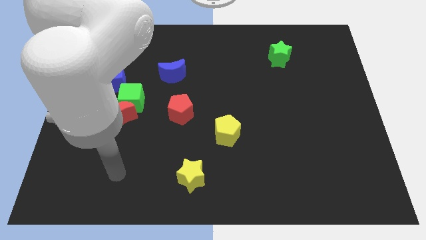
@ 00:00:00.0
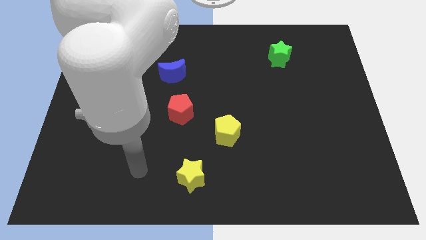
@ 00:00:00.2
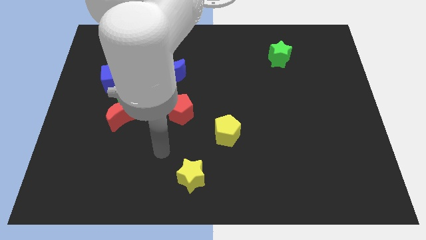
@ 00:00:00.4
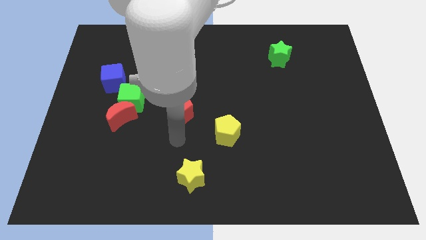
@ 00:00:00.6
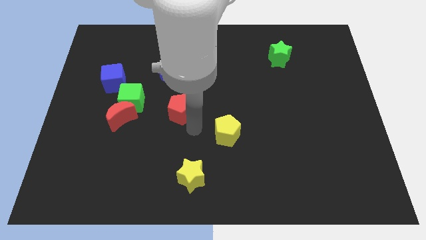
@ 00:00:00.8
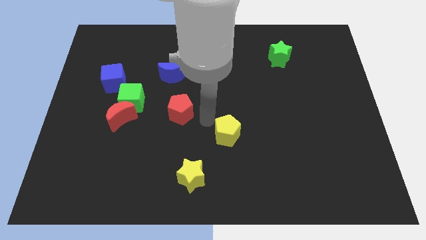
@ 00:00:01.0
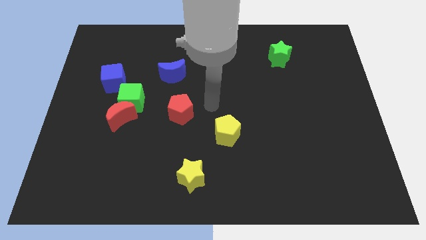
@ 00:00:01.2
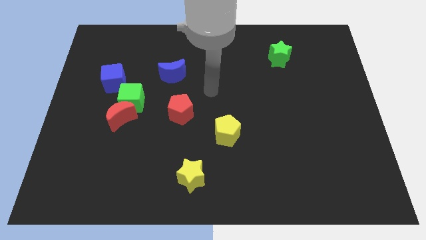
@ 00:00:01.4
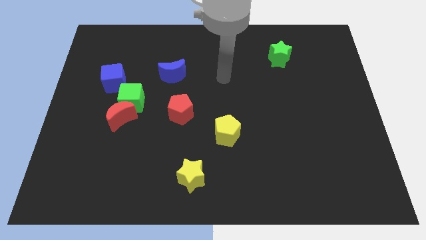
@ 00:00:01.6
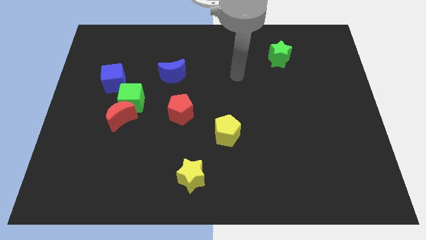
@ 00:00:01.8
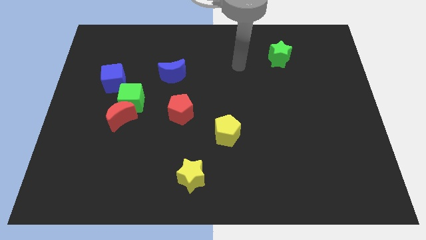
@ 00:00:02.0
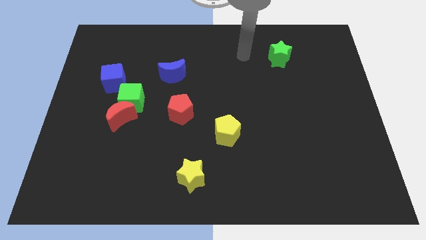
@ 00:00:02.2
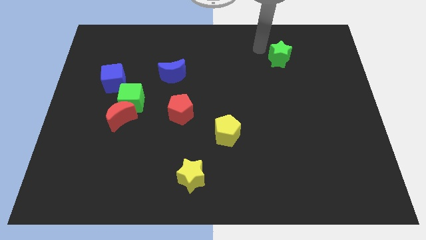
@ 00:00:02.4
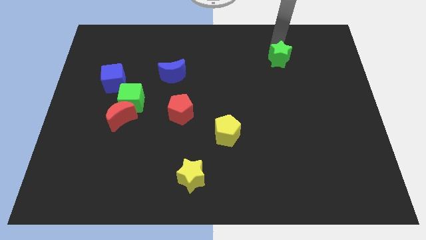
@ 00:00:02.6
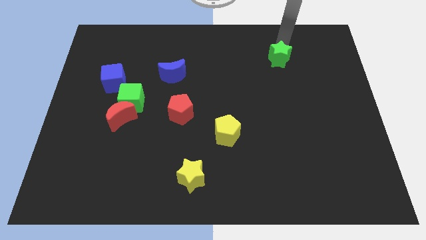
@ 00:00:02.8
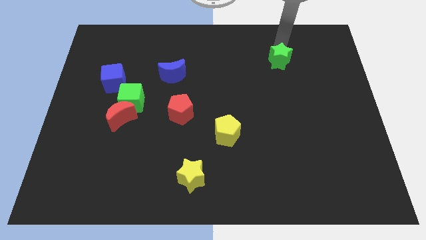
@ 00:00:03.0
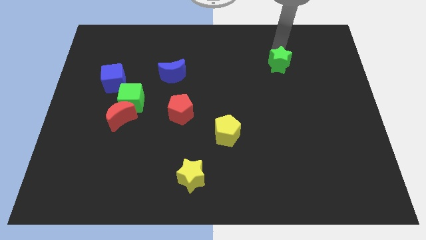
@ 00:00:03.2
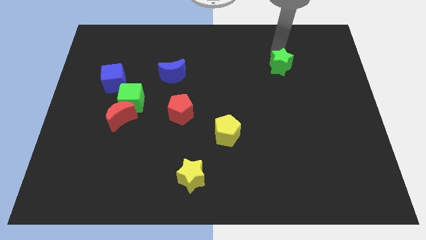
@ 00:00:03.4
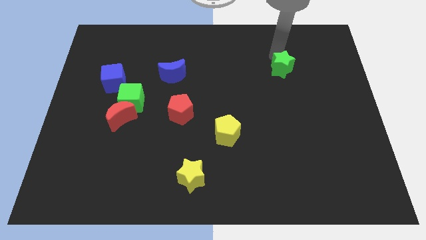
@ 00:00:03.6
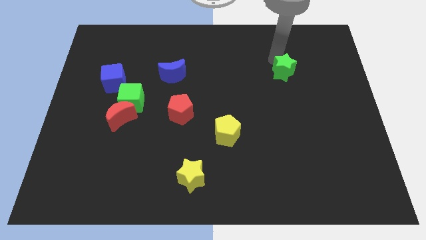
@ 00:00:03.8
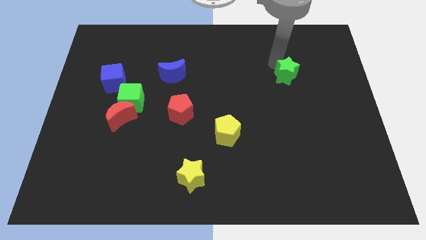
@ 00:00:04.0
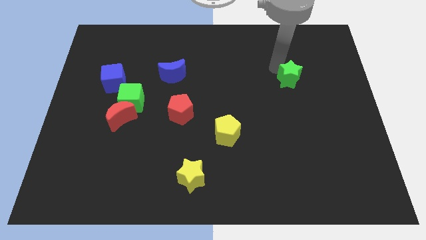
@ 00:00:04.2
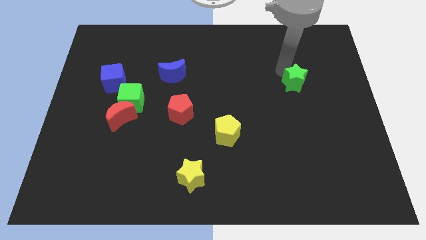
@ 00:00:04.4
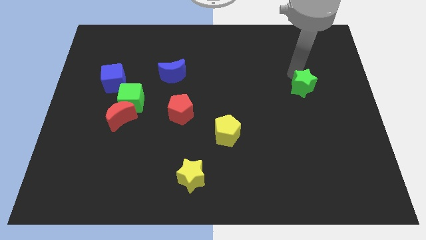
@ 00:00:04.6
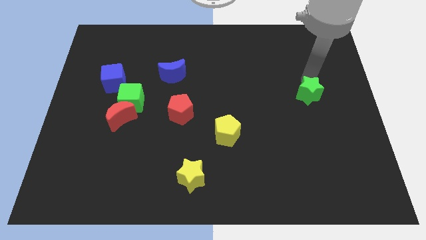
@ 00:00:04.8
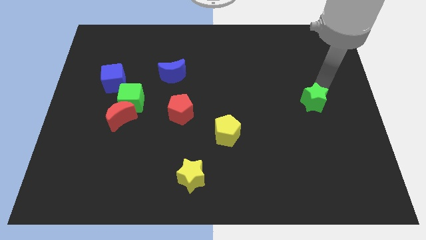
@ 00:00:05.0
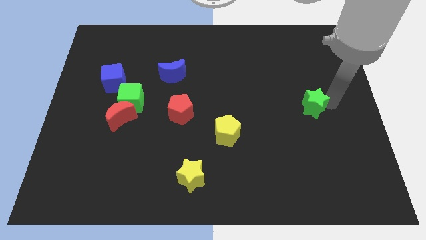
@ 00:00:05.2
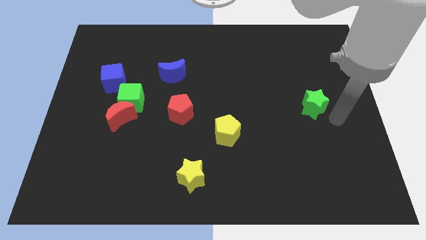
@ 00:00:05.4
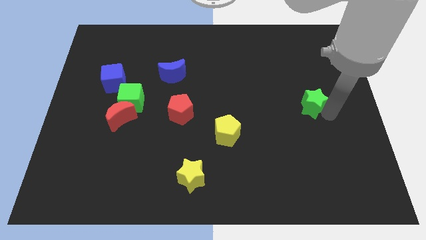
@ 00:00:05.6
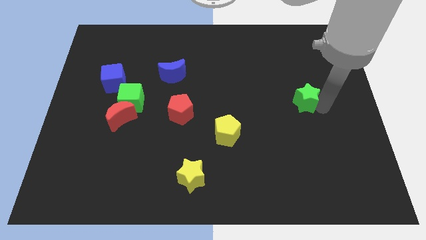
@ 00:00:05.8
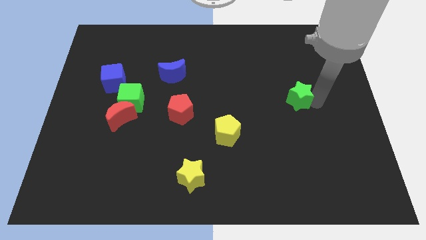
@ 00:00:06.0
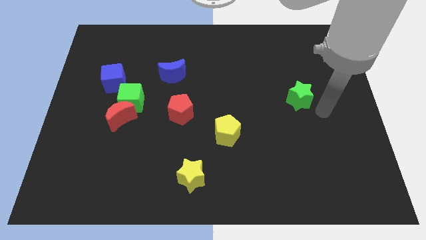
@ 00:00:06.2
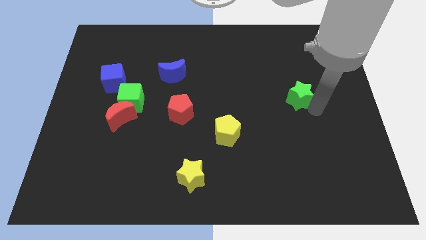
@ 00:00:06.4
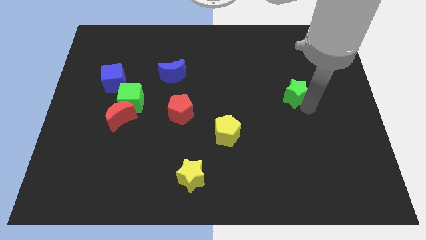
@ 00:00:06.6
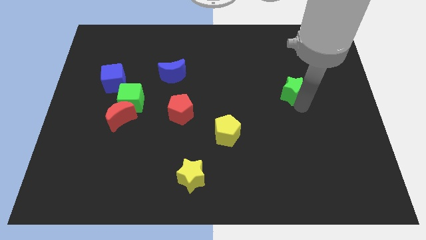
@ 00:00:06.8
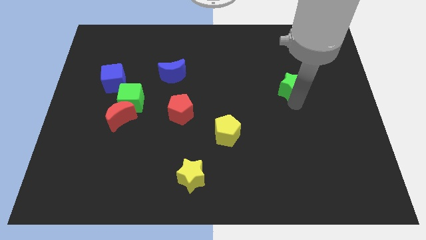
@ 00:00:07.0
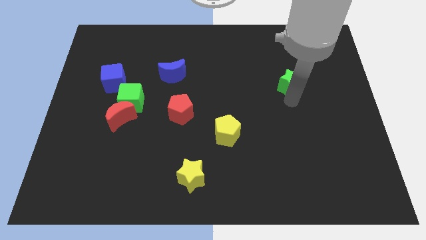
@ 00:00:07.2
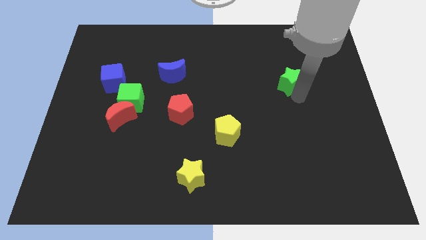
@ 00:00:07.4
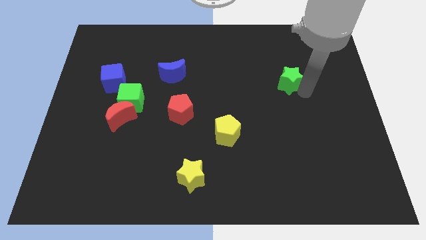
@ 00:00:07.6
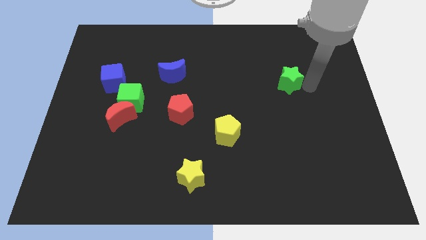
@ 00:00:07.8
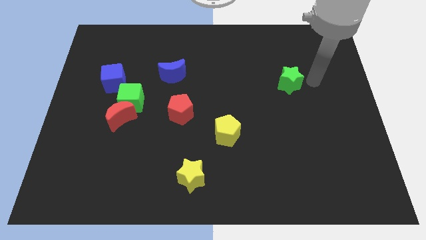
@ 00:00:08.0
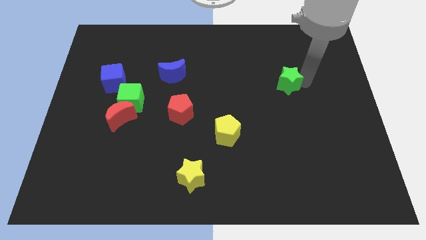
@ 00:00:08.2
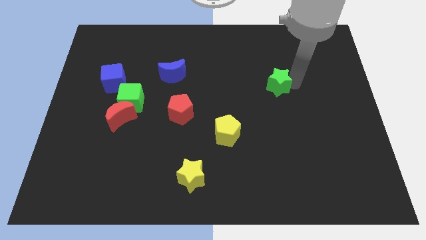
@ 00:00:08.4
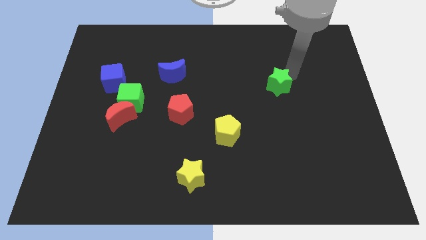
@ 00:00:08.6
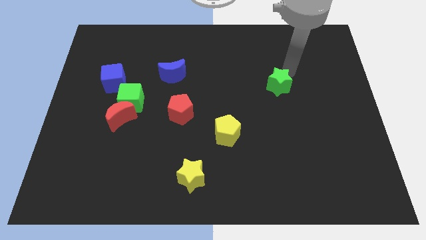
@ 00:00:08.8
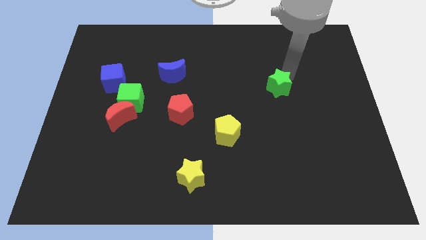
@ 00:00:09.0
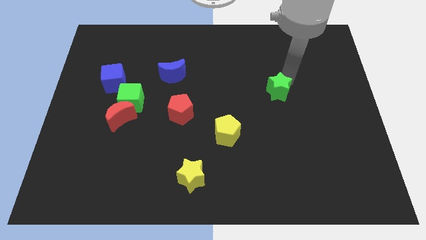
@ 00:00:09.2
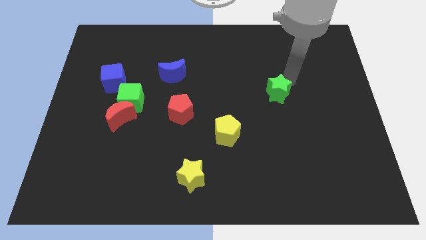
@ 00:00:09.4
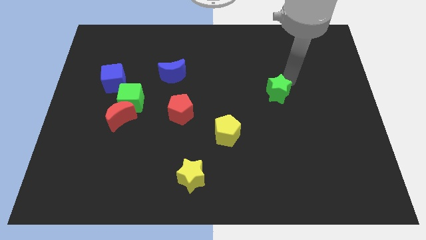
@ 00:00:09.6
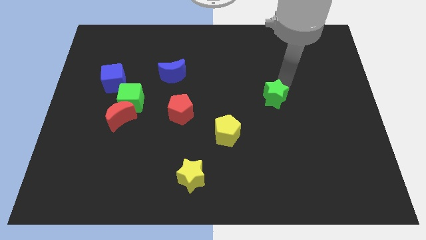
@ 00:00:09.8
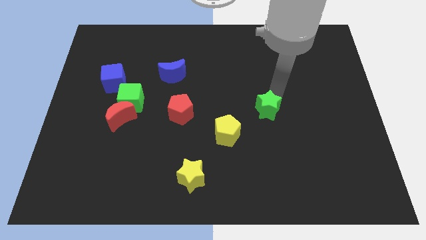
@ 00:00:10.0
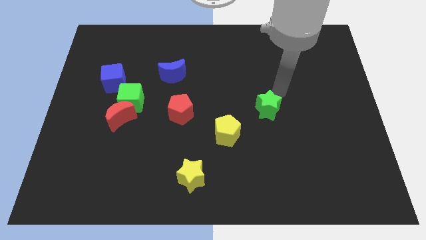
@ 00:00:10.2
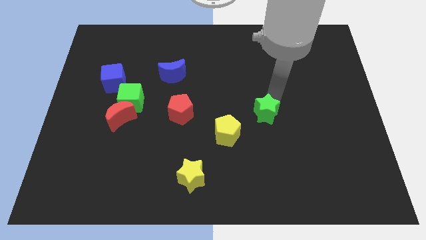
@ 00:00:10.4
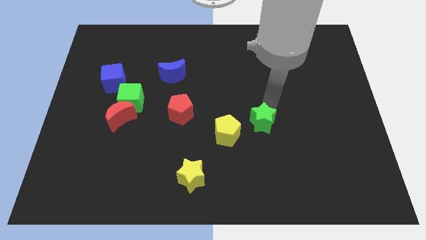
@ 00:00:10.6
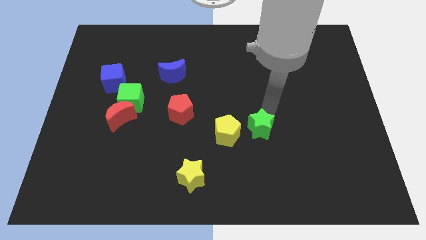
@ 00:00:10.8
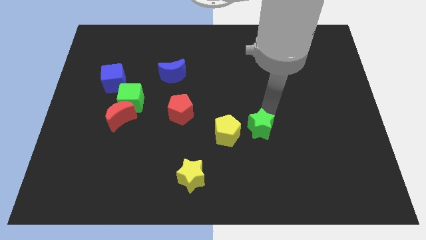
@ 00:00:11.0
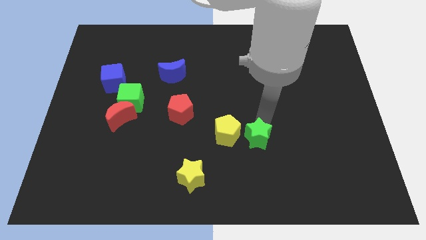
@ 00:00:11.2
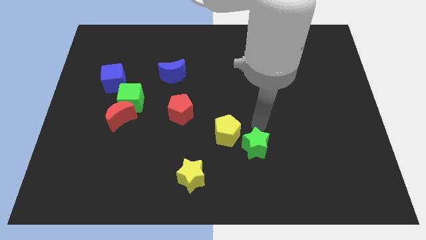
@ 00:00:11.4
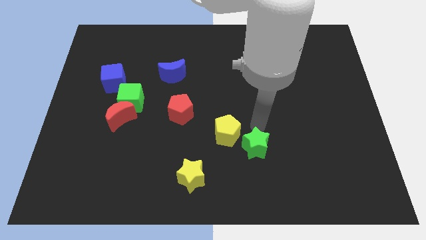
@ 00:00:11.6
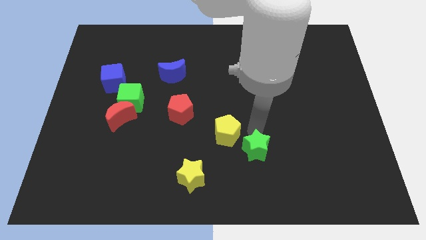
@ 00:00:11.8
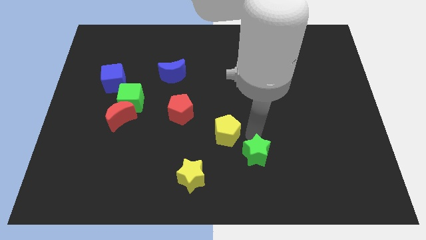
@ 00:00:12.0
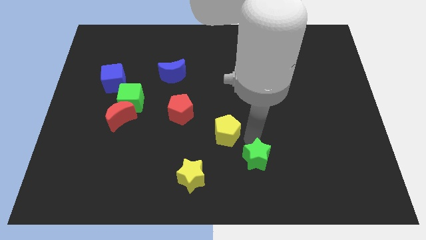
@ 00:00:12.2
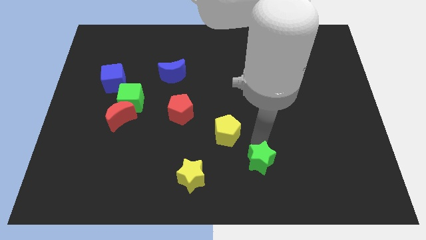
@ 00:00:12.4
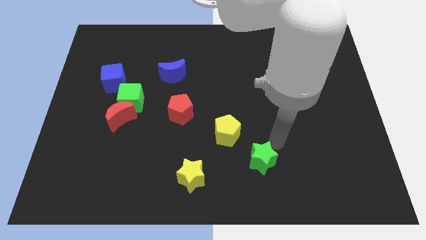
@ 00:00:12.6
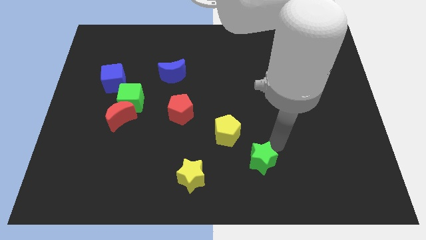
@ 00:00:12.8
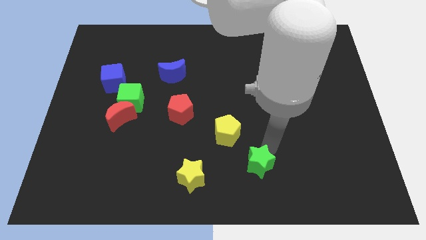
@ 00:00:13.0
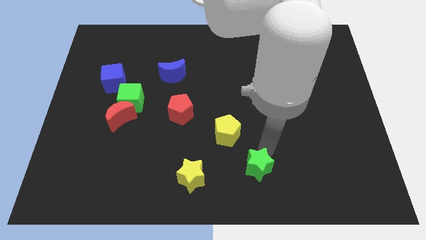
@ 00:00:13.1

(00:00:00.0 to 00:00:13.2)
slide the green star to the bottom

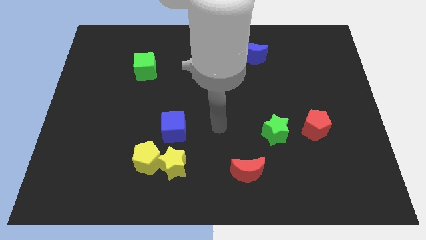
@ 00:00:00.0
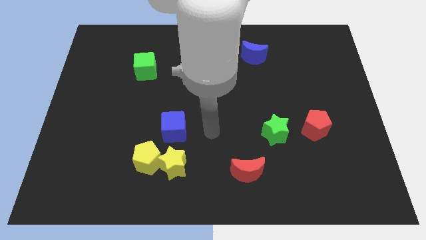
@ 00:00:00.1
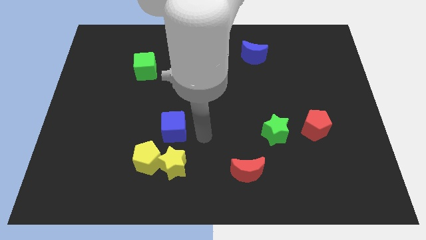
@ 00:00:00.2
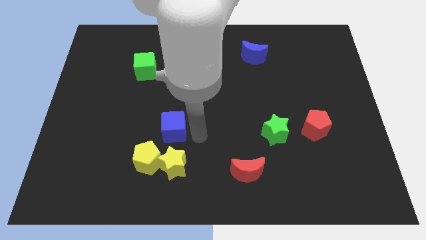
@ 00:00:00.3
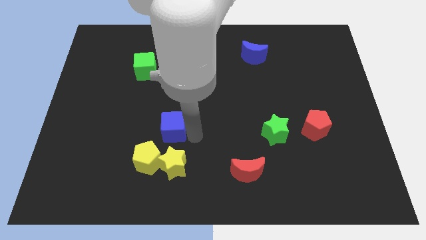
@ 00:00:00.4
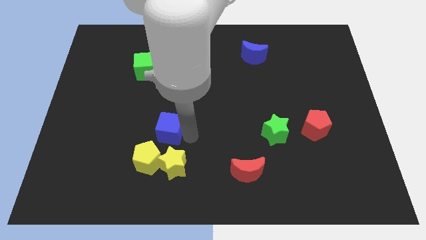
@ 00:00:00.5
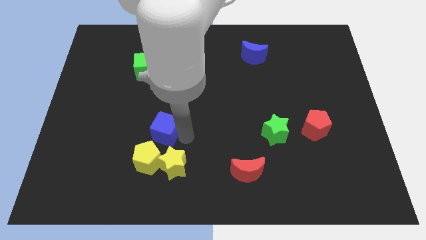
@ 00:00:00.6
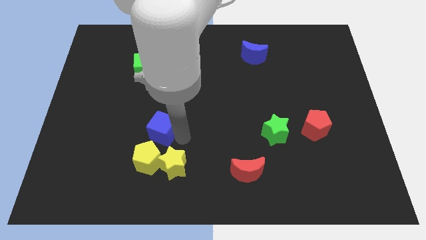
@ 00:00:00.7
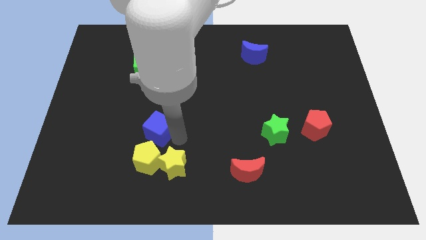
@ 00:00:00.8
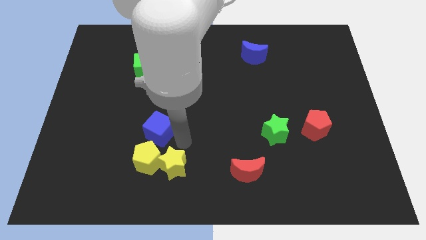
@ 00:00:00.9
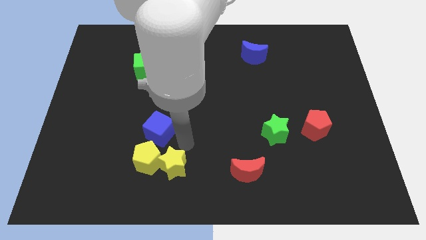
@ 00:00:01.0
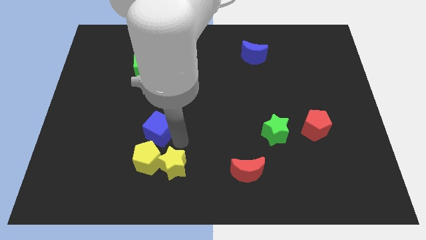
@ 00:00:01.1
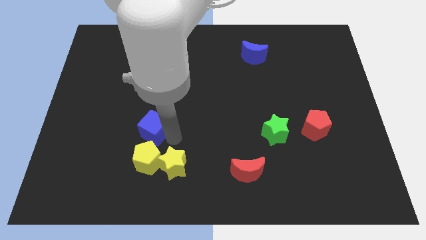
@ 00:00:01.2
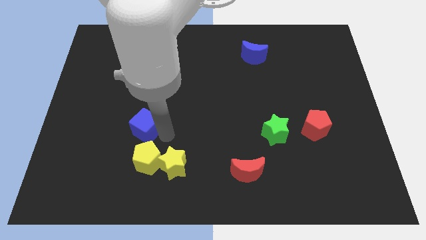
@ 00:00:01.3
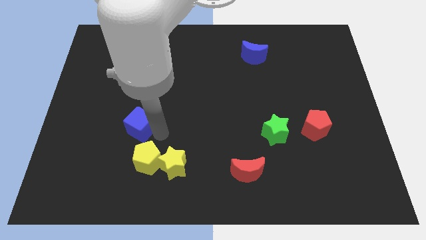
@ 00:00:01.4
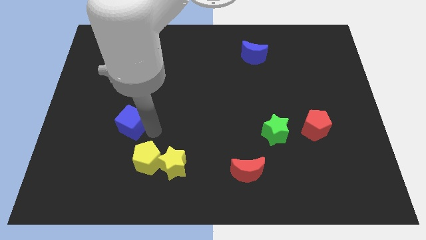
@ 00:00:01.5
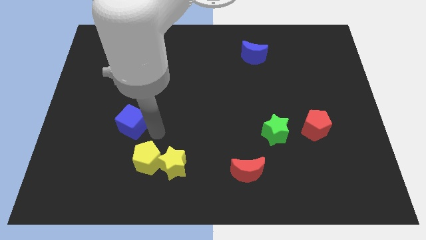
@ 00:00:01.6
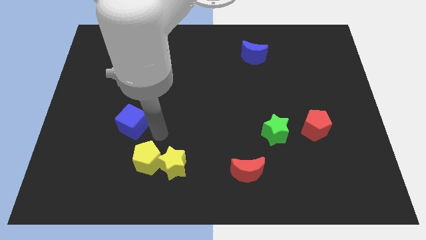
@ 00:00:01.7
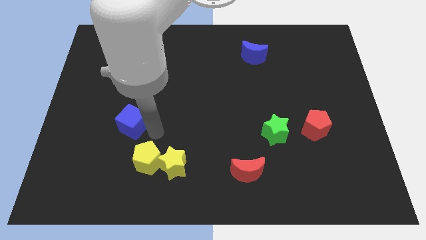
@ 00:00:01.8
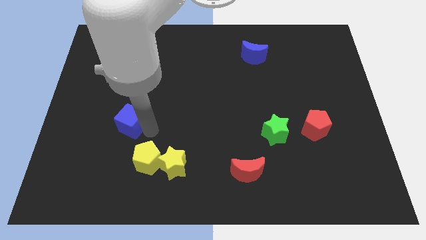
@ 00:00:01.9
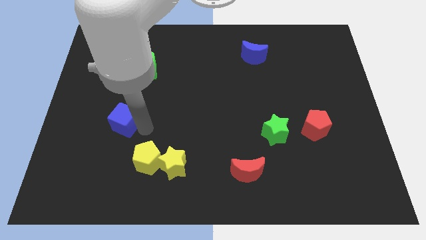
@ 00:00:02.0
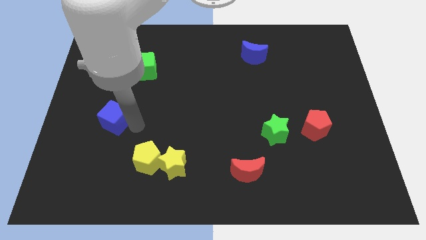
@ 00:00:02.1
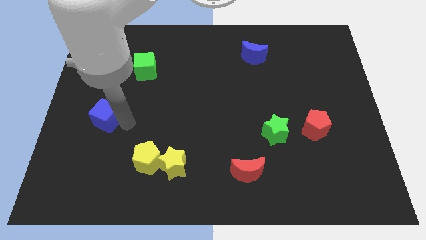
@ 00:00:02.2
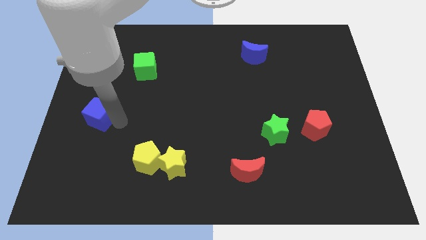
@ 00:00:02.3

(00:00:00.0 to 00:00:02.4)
push the blue cube to the left side of the board
